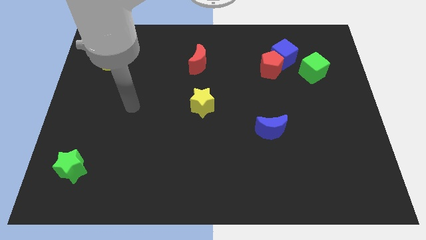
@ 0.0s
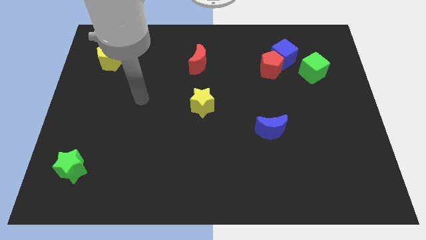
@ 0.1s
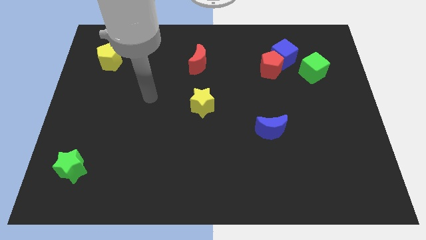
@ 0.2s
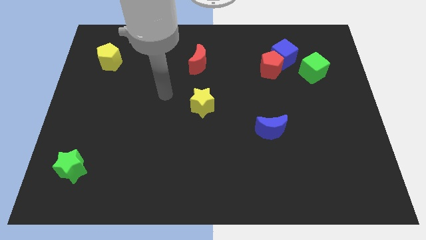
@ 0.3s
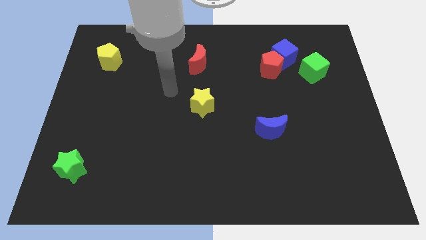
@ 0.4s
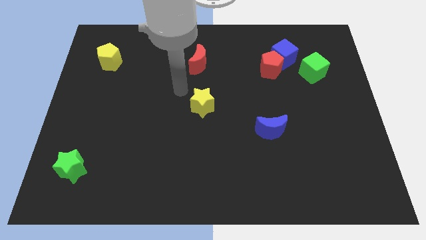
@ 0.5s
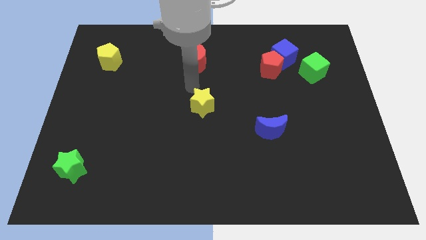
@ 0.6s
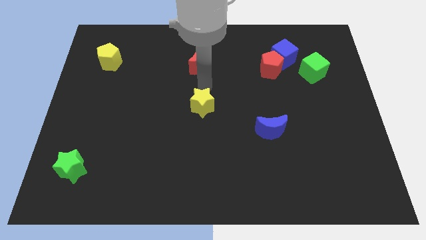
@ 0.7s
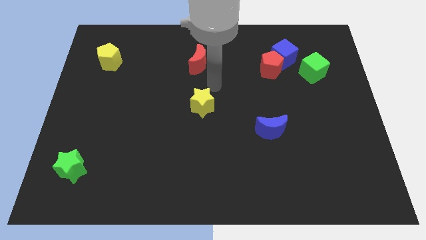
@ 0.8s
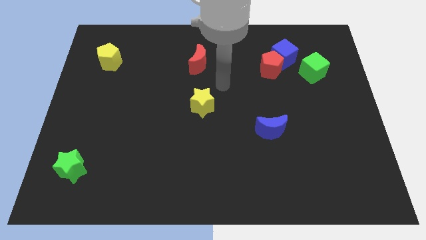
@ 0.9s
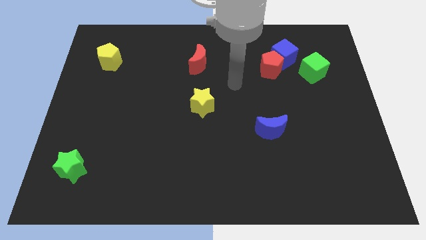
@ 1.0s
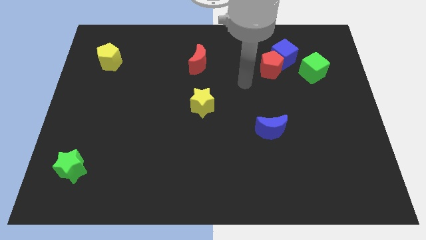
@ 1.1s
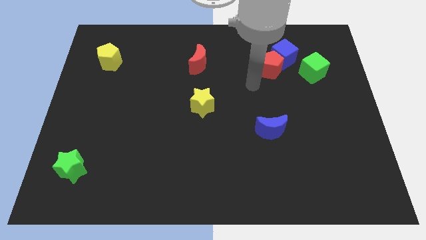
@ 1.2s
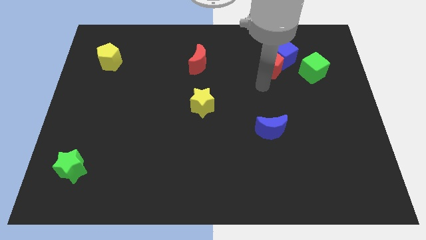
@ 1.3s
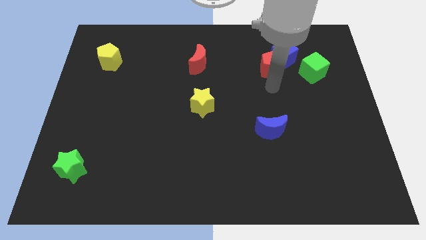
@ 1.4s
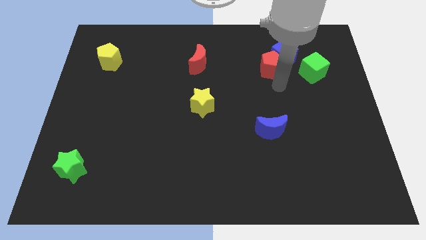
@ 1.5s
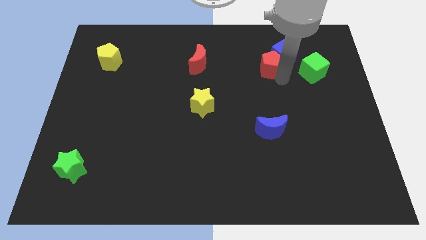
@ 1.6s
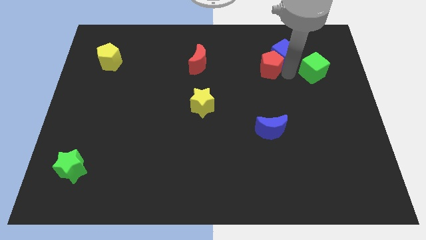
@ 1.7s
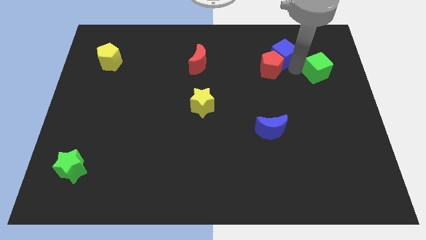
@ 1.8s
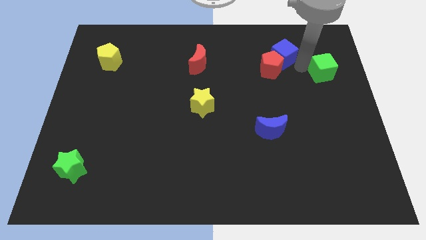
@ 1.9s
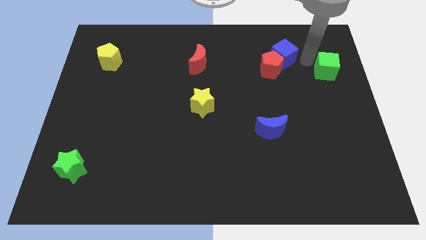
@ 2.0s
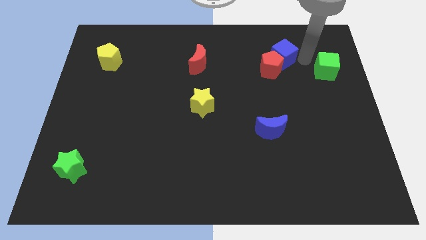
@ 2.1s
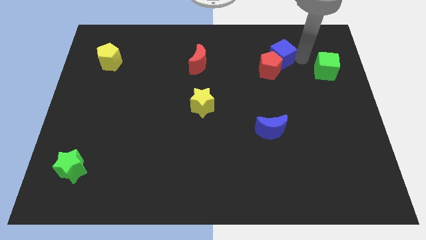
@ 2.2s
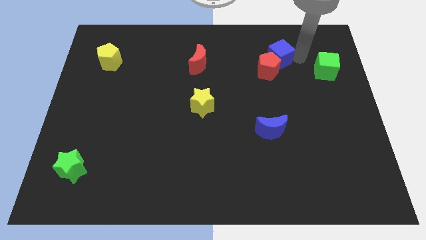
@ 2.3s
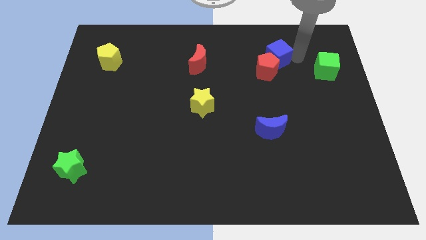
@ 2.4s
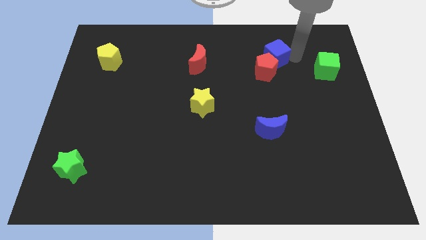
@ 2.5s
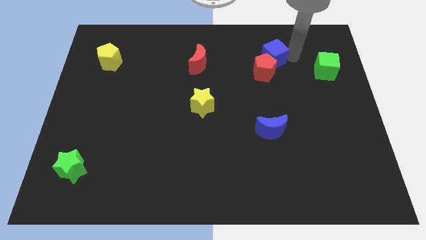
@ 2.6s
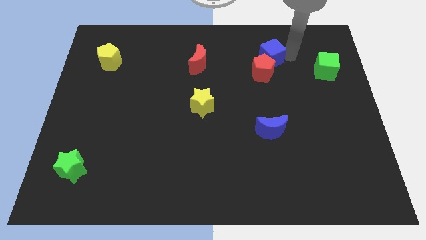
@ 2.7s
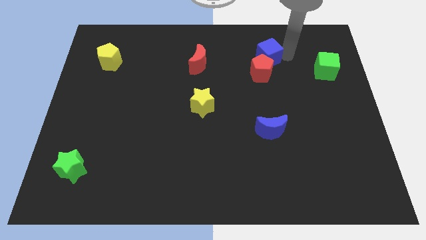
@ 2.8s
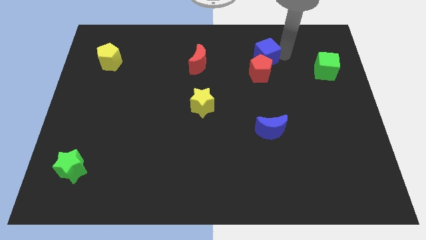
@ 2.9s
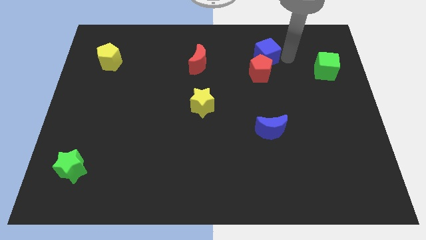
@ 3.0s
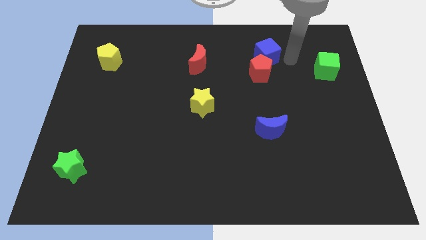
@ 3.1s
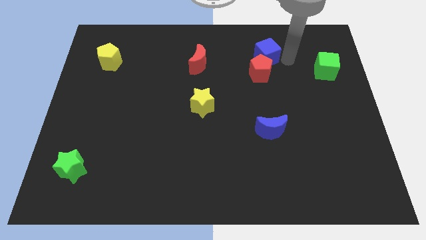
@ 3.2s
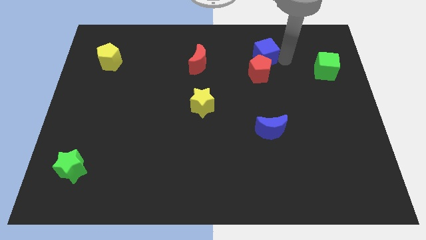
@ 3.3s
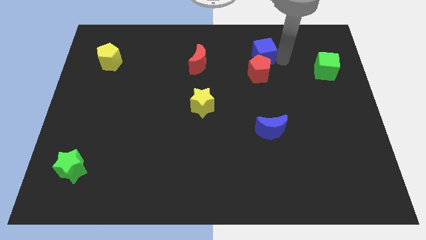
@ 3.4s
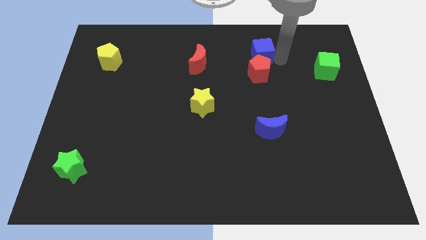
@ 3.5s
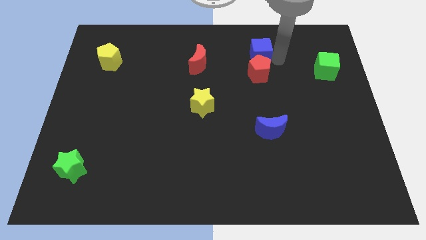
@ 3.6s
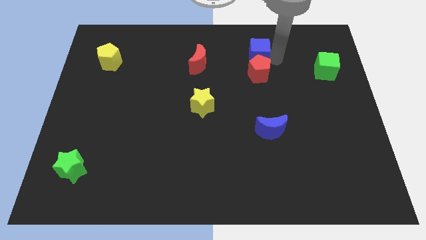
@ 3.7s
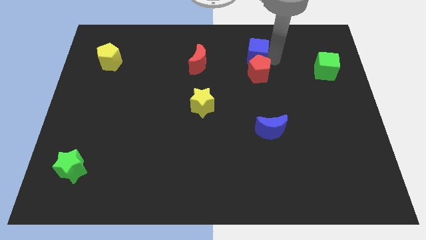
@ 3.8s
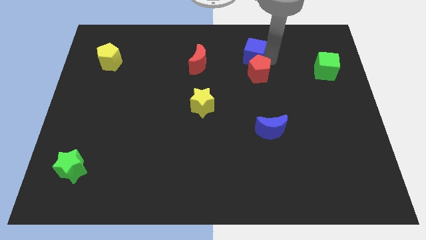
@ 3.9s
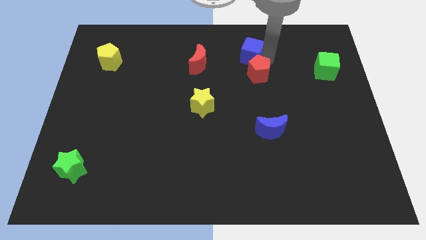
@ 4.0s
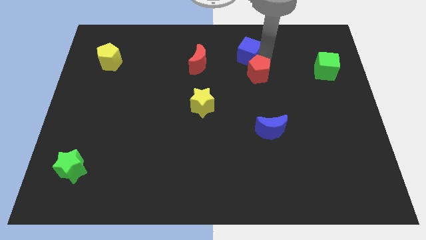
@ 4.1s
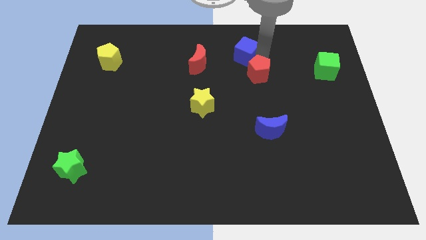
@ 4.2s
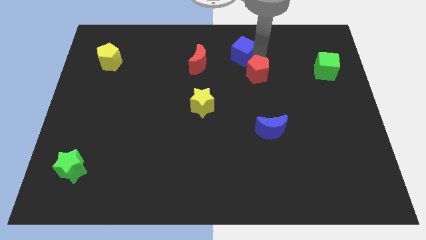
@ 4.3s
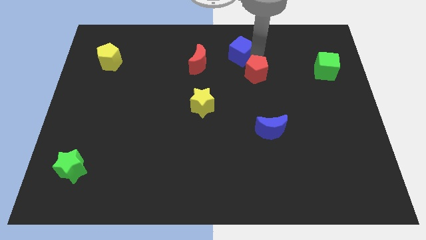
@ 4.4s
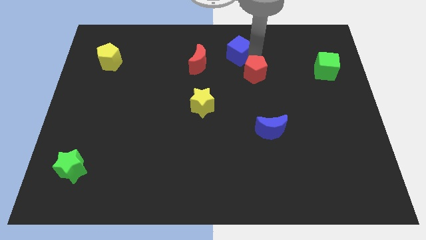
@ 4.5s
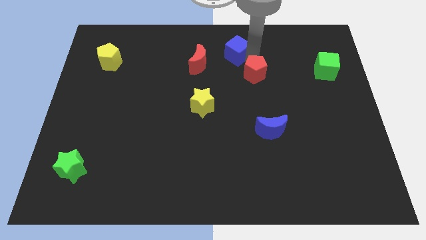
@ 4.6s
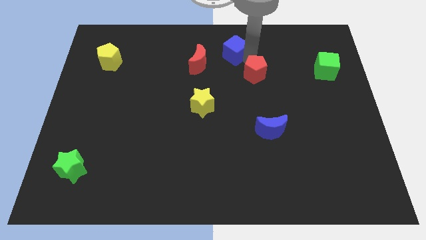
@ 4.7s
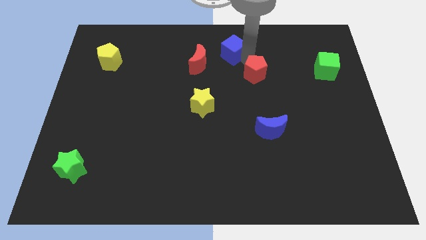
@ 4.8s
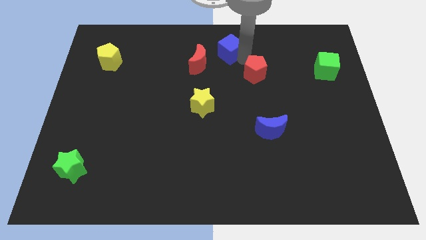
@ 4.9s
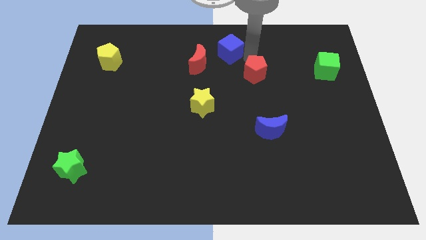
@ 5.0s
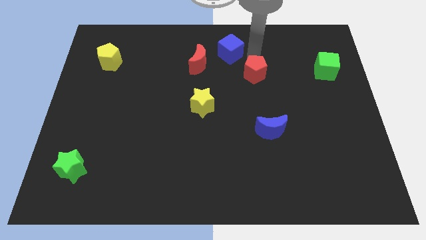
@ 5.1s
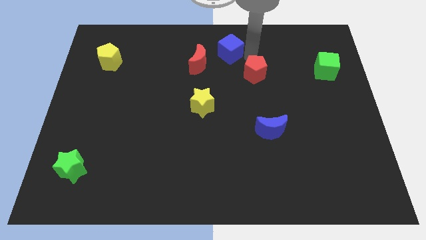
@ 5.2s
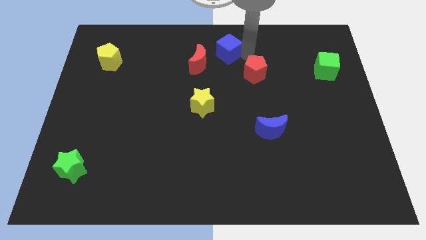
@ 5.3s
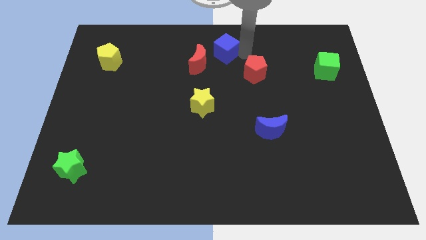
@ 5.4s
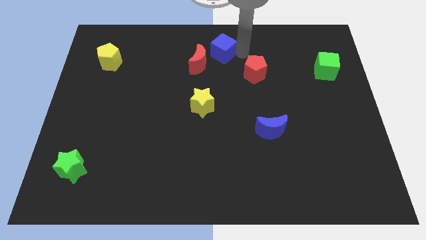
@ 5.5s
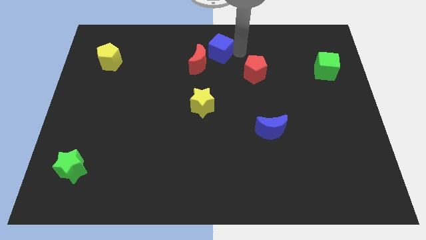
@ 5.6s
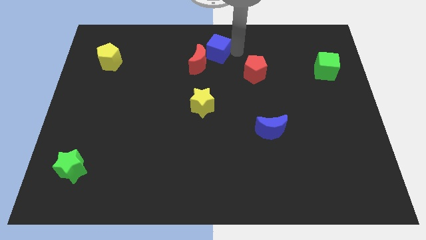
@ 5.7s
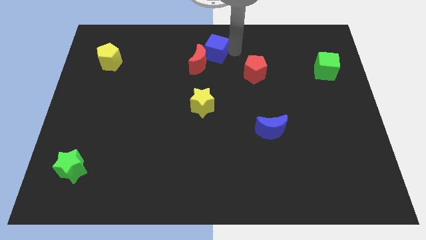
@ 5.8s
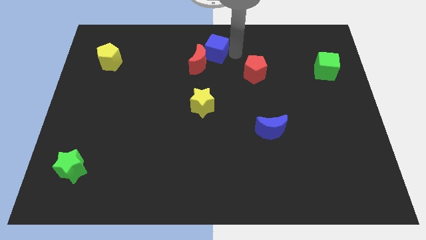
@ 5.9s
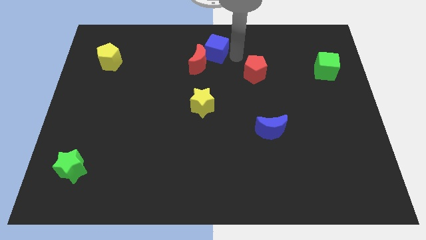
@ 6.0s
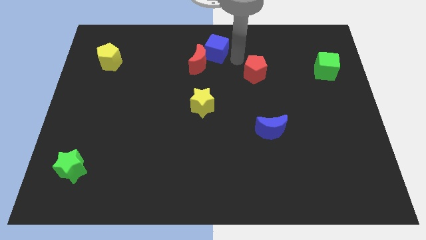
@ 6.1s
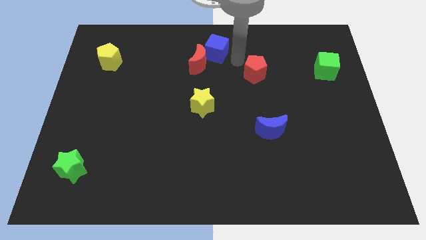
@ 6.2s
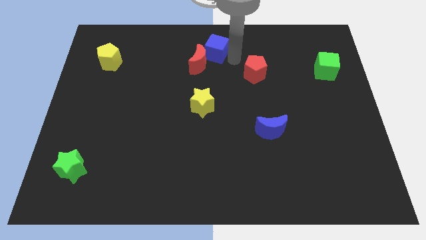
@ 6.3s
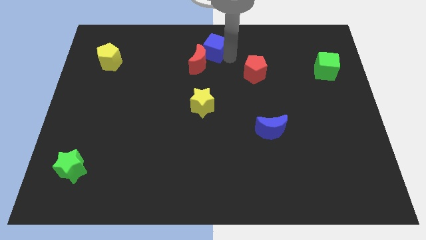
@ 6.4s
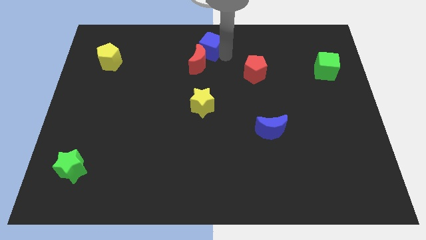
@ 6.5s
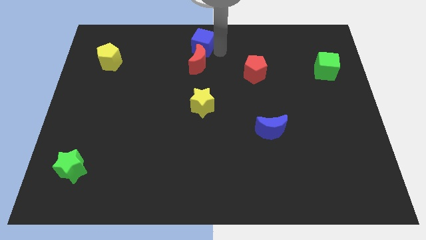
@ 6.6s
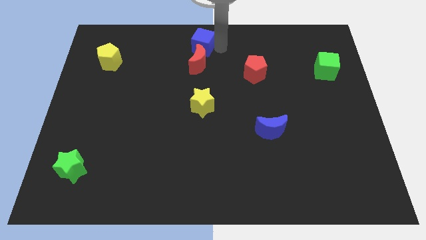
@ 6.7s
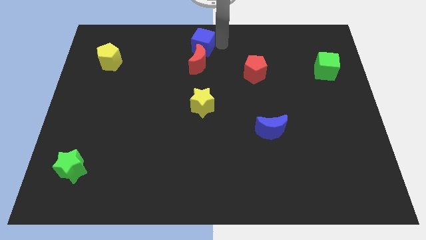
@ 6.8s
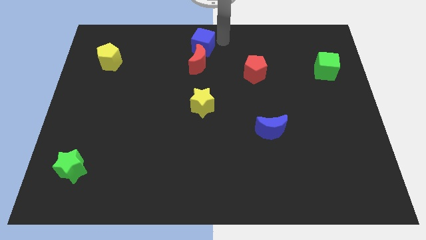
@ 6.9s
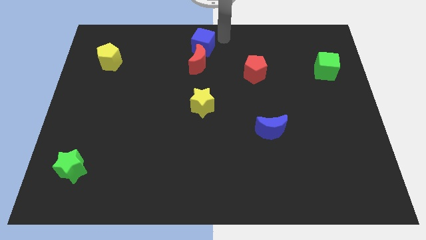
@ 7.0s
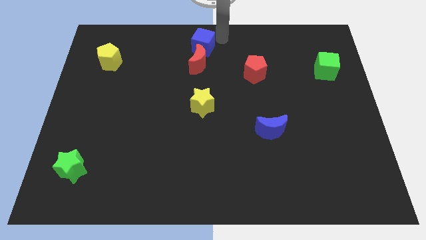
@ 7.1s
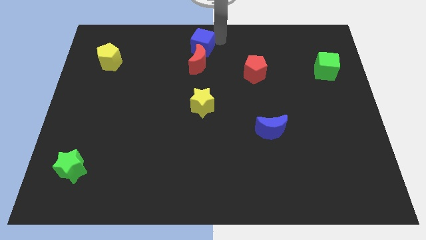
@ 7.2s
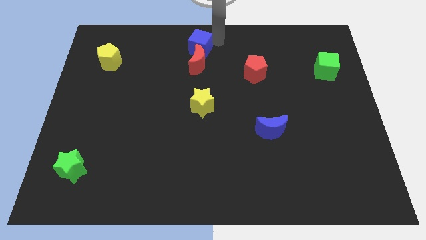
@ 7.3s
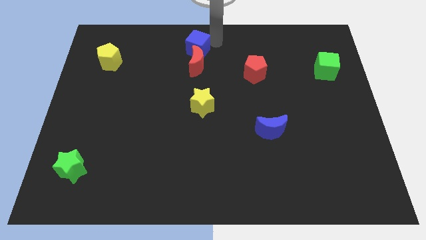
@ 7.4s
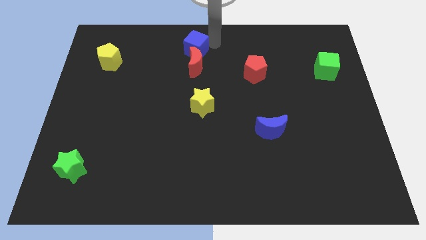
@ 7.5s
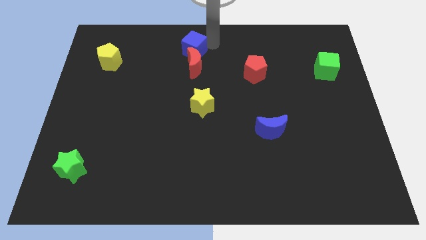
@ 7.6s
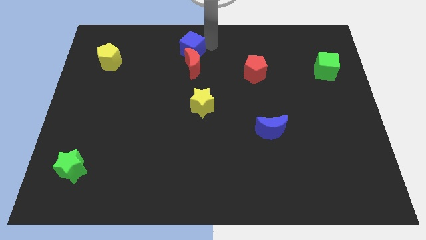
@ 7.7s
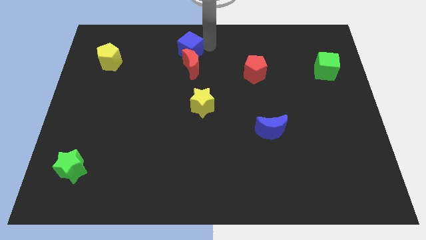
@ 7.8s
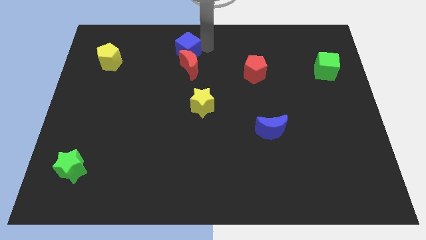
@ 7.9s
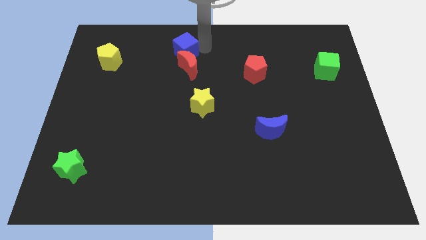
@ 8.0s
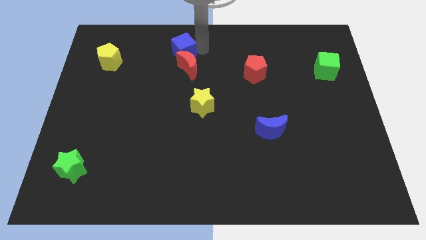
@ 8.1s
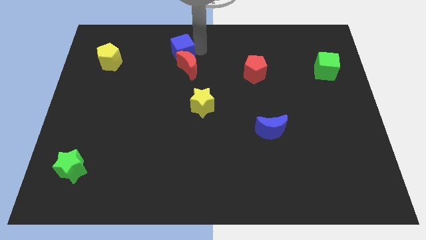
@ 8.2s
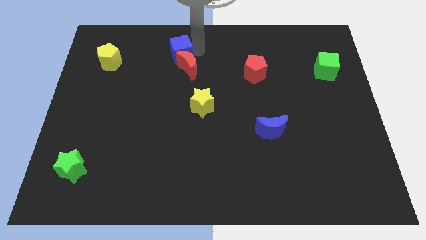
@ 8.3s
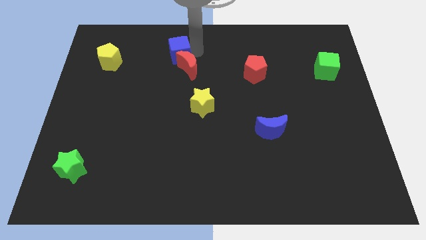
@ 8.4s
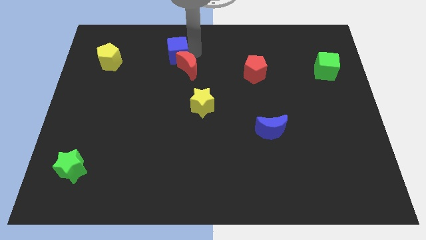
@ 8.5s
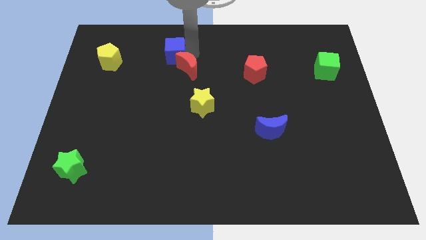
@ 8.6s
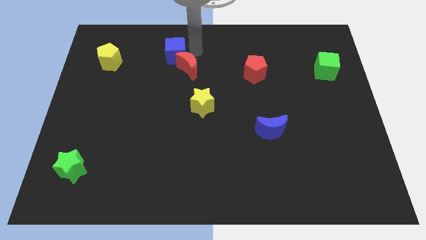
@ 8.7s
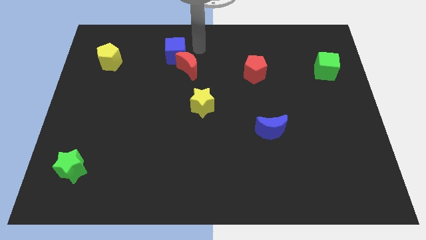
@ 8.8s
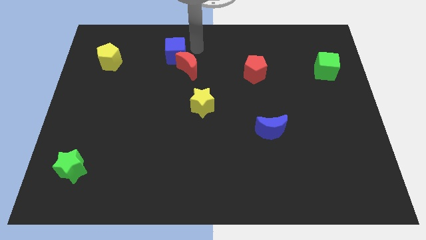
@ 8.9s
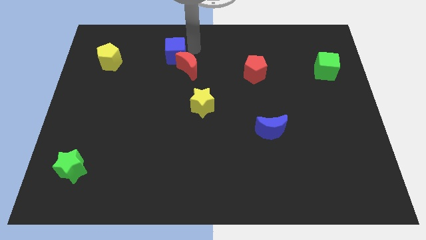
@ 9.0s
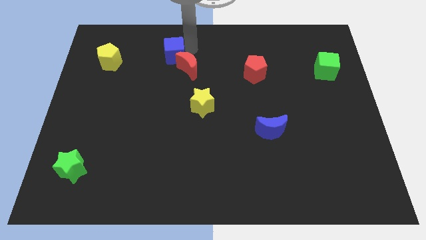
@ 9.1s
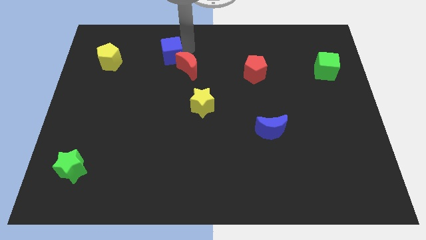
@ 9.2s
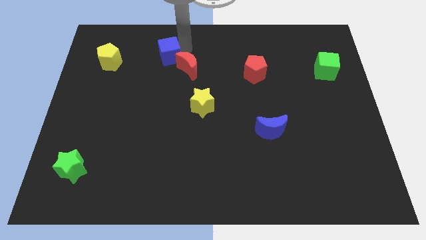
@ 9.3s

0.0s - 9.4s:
put the blue cube to the right side of the yellow pentagon
